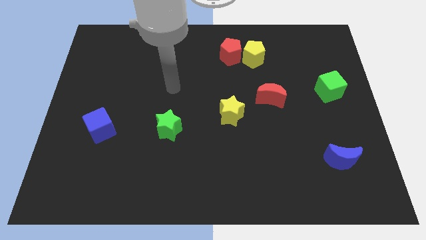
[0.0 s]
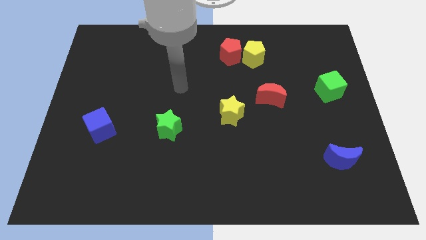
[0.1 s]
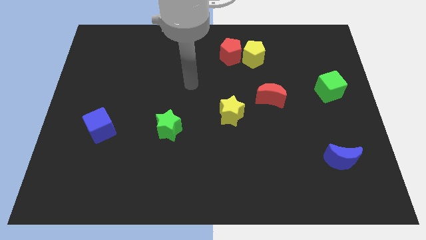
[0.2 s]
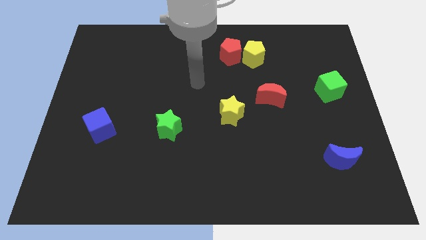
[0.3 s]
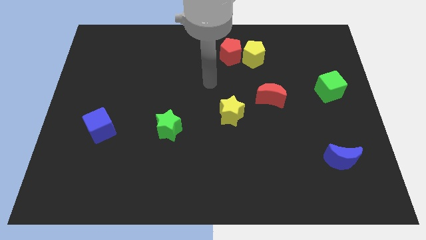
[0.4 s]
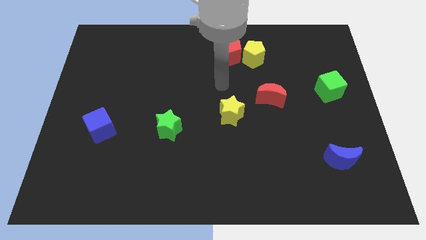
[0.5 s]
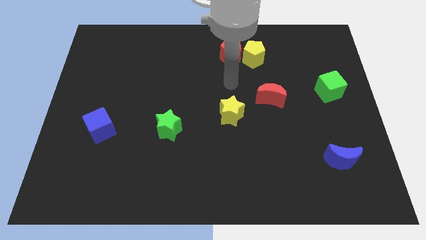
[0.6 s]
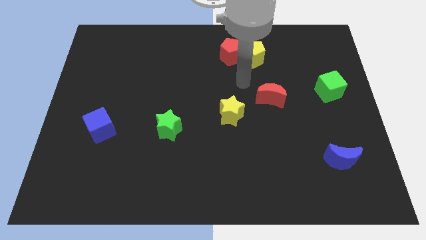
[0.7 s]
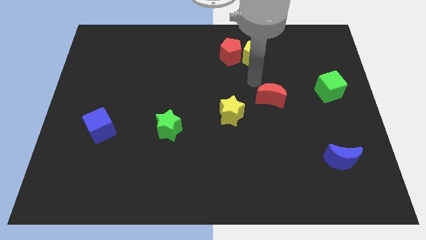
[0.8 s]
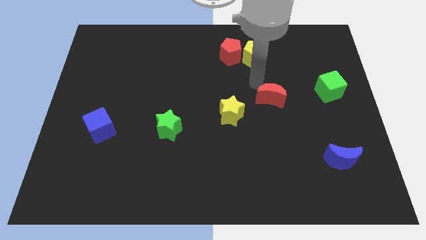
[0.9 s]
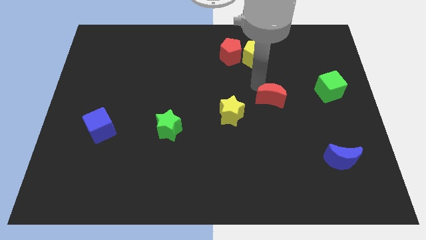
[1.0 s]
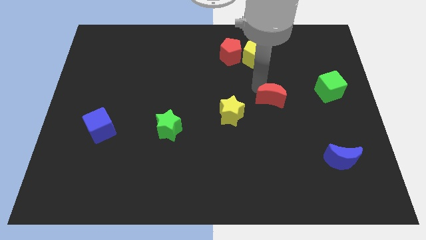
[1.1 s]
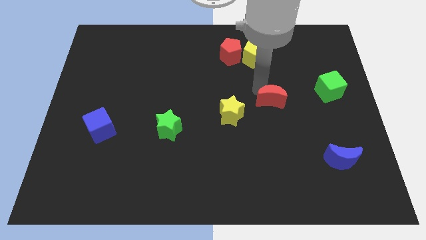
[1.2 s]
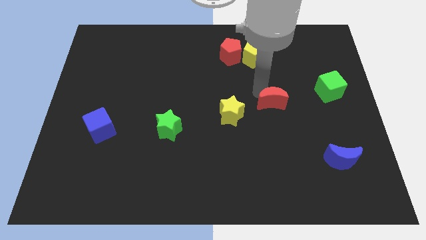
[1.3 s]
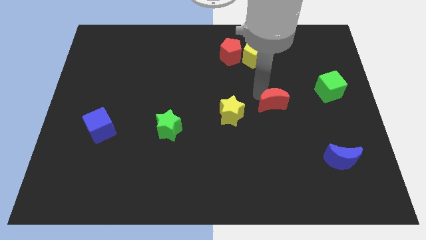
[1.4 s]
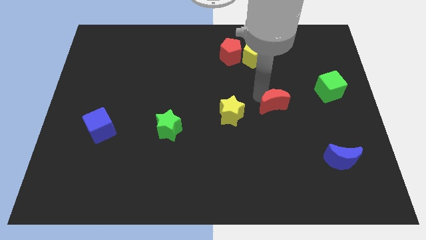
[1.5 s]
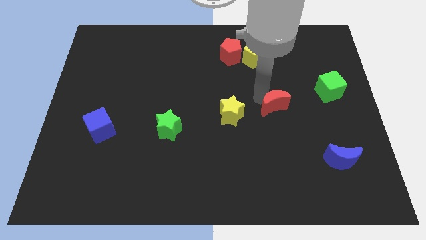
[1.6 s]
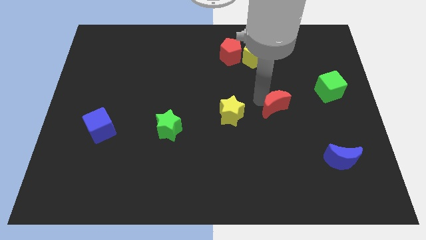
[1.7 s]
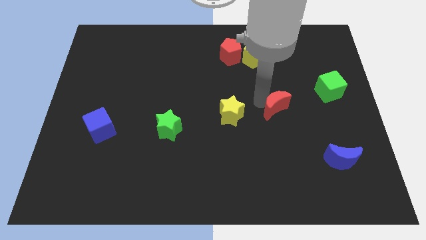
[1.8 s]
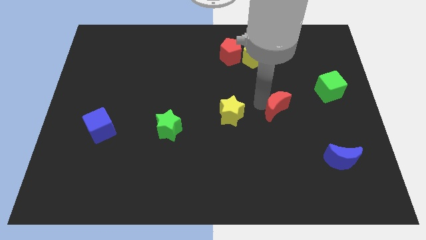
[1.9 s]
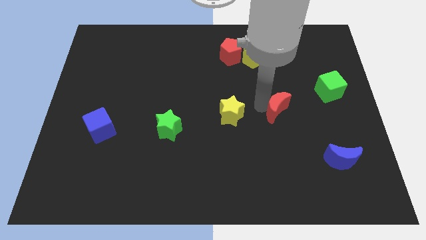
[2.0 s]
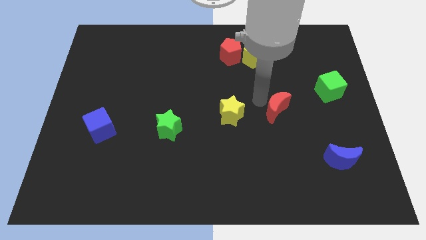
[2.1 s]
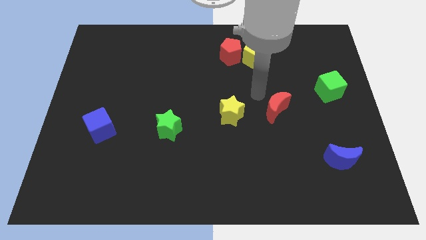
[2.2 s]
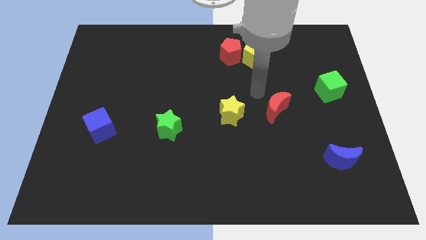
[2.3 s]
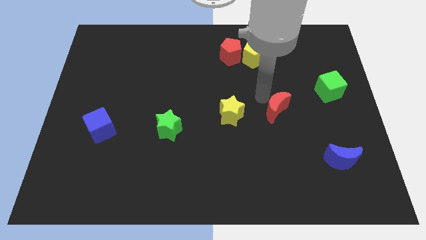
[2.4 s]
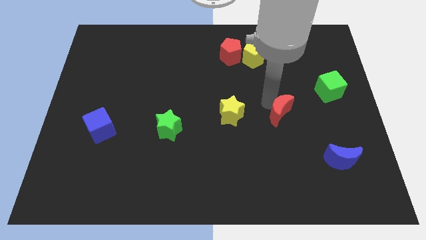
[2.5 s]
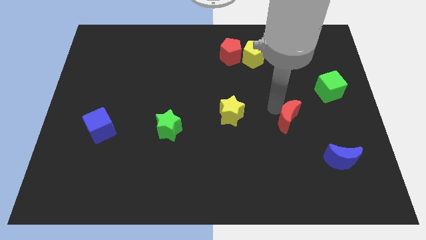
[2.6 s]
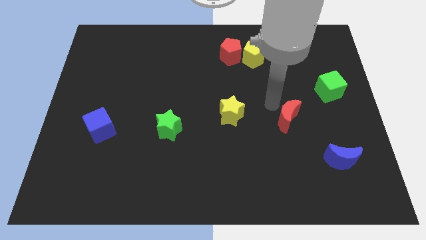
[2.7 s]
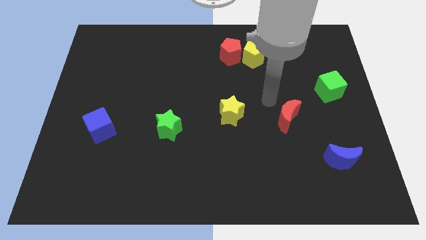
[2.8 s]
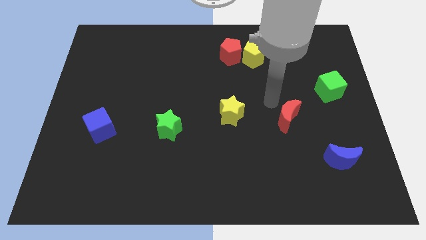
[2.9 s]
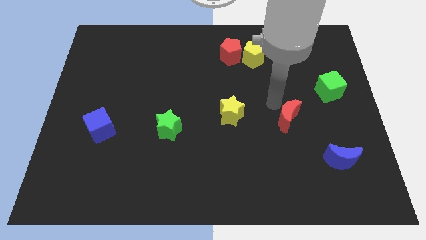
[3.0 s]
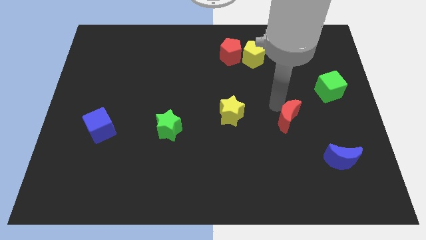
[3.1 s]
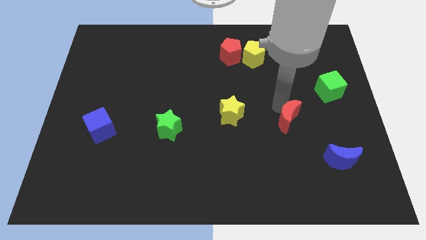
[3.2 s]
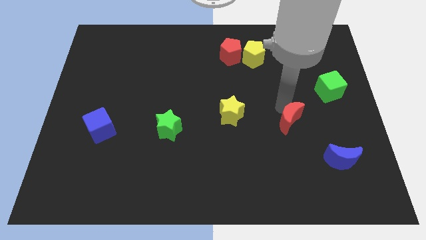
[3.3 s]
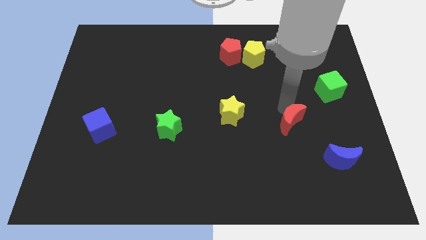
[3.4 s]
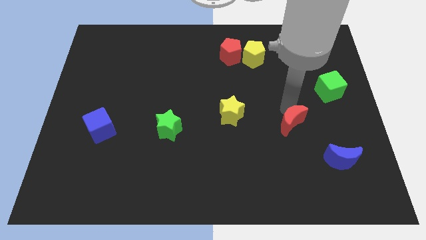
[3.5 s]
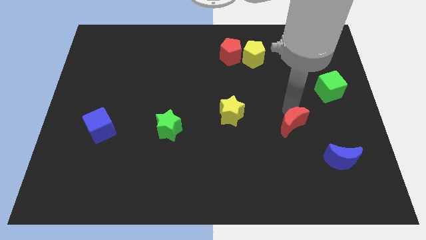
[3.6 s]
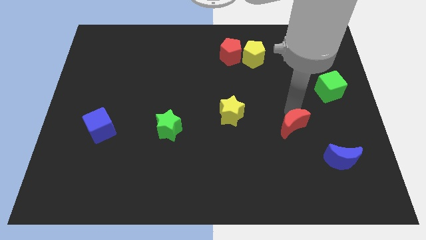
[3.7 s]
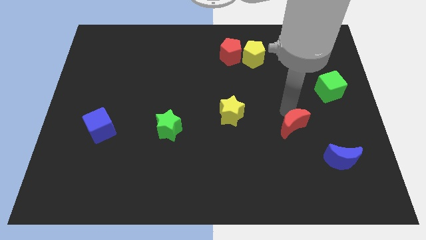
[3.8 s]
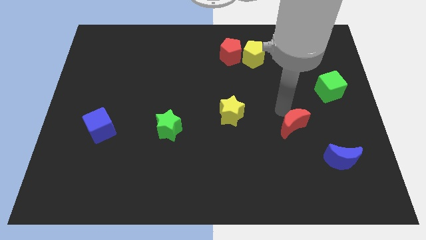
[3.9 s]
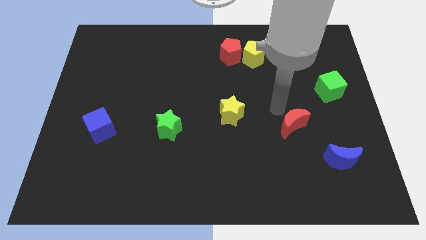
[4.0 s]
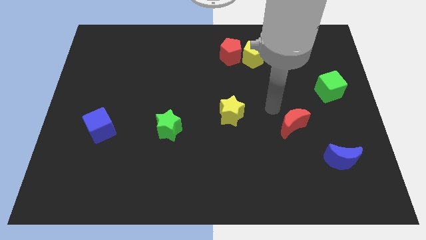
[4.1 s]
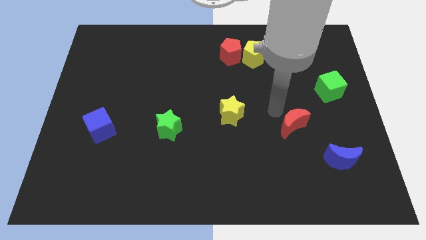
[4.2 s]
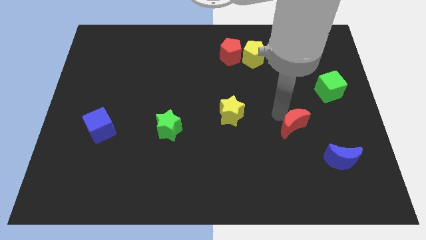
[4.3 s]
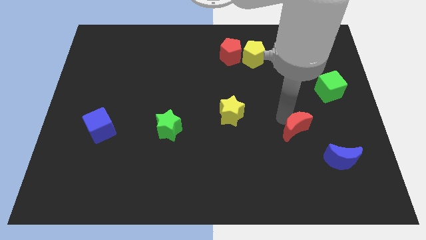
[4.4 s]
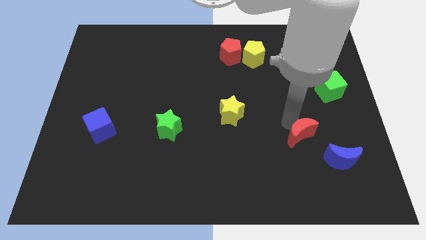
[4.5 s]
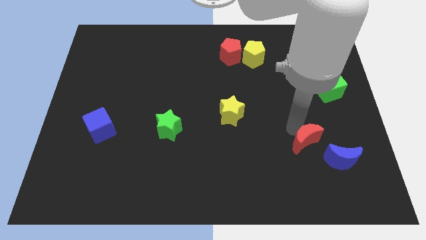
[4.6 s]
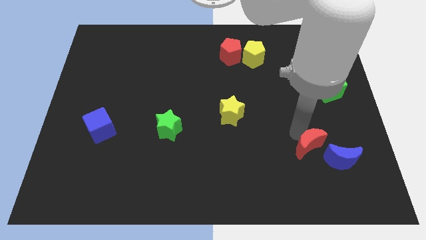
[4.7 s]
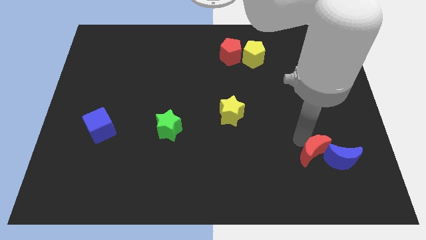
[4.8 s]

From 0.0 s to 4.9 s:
put the red moon next to the blue moon

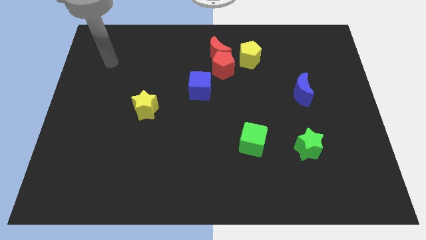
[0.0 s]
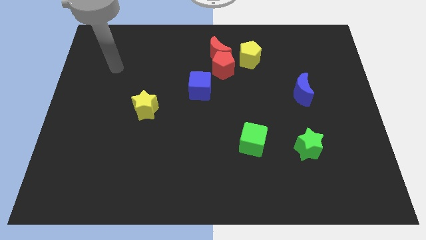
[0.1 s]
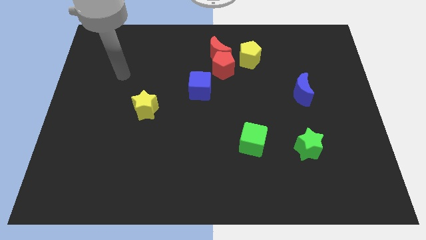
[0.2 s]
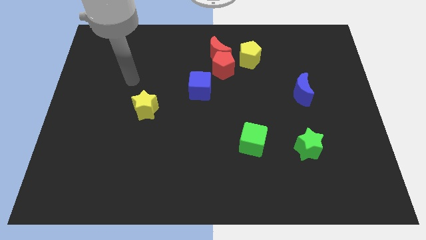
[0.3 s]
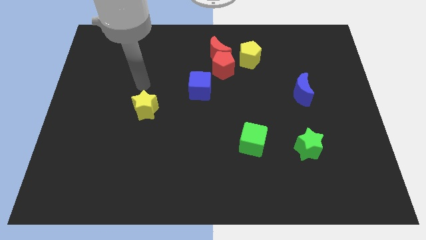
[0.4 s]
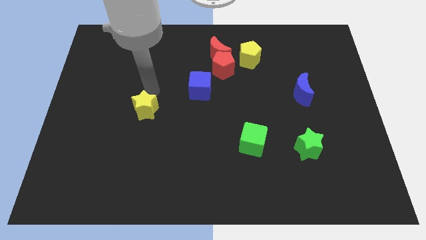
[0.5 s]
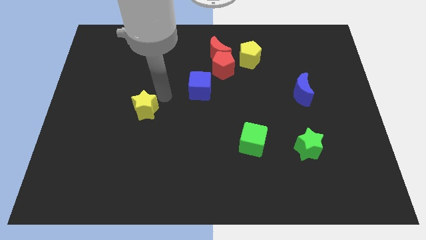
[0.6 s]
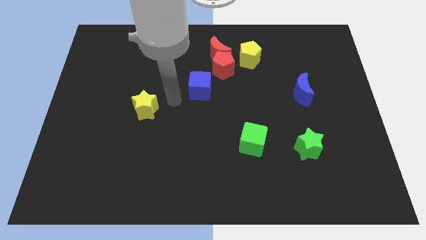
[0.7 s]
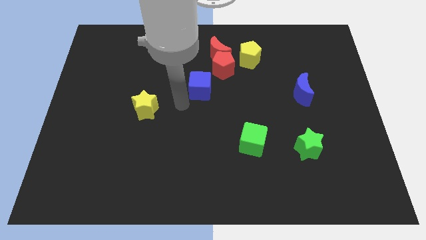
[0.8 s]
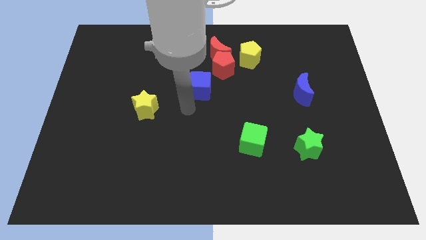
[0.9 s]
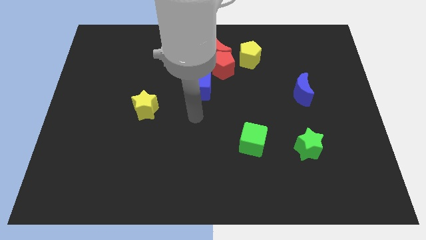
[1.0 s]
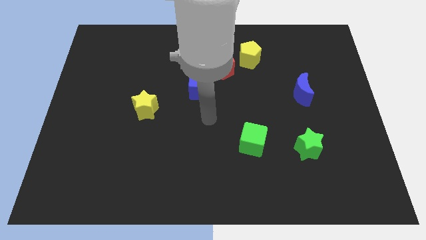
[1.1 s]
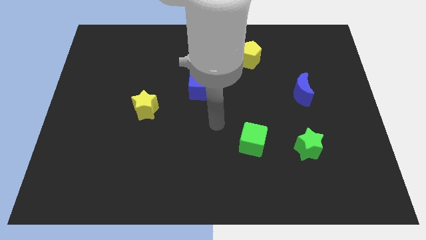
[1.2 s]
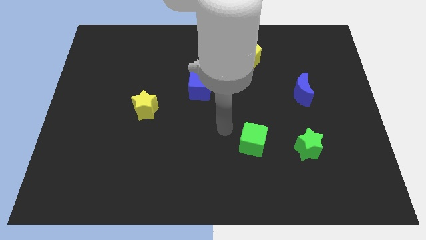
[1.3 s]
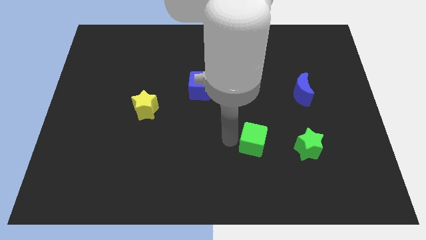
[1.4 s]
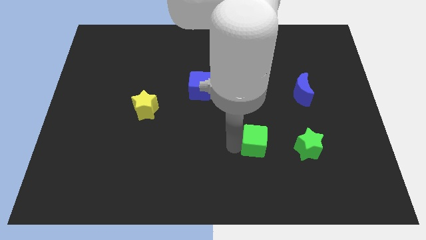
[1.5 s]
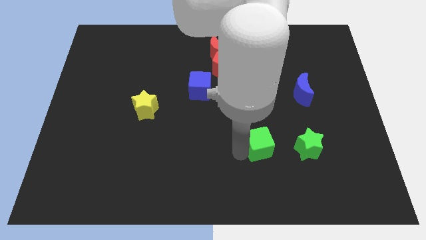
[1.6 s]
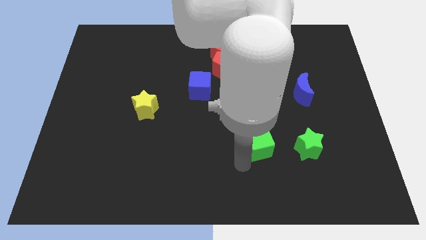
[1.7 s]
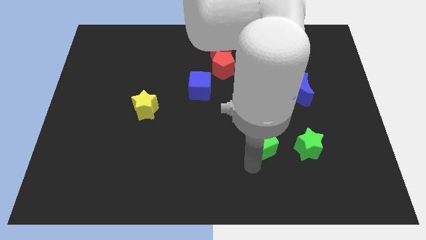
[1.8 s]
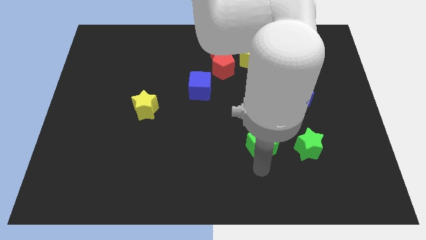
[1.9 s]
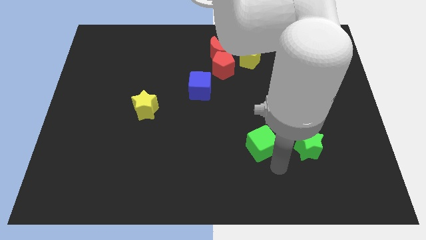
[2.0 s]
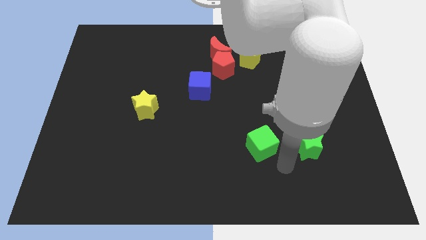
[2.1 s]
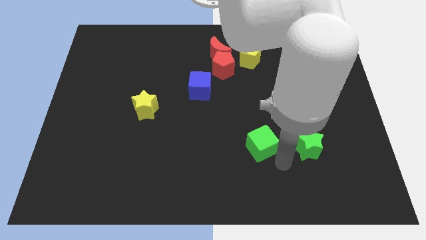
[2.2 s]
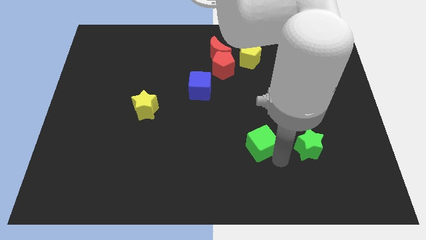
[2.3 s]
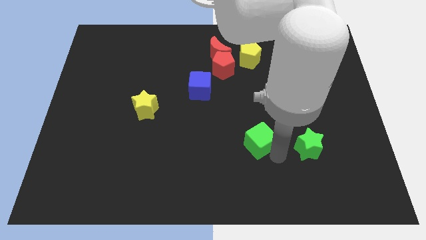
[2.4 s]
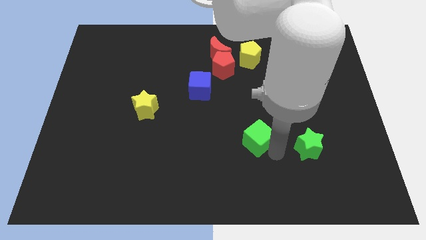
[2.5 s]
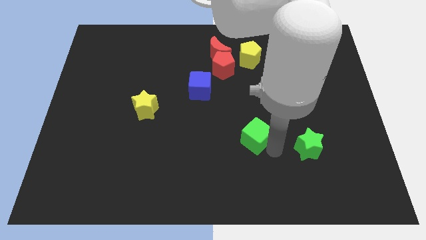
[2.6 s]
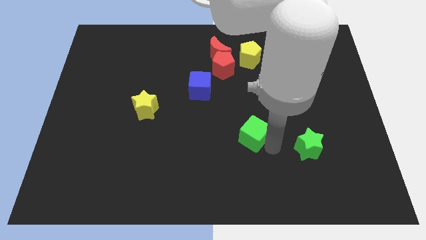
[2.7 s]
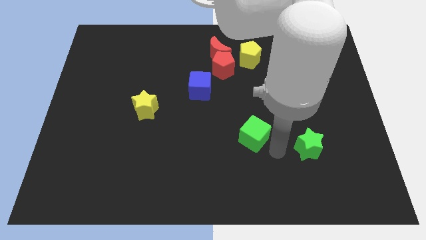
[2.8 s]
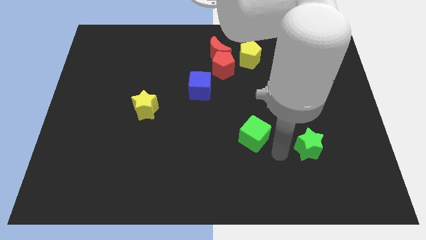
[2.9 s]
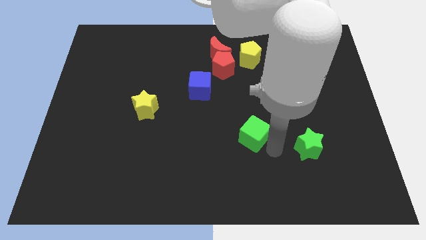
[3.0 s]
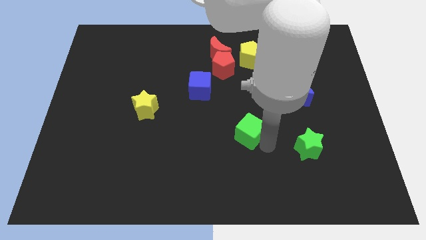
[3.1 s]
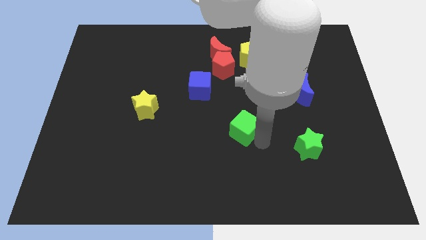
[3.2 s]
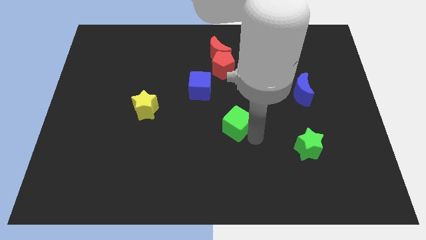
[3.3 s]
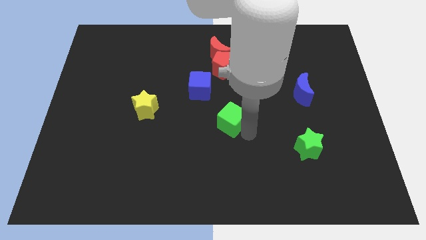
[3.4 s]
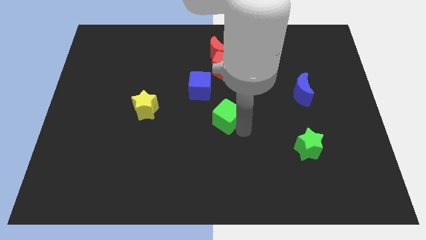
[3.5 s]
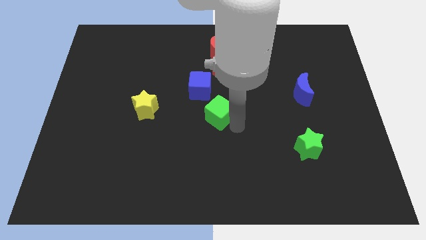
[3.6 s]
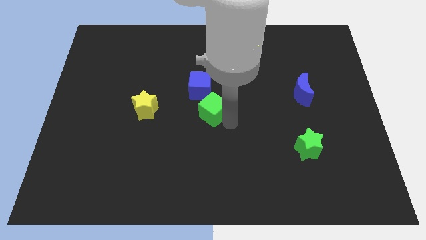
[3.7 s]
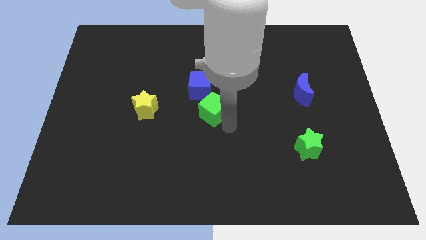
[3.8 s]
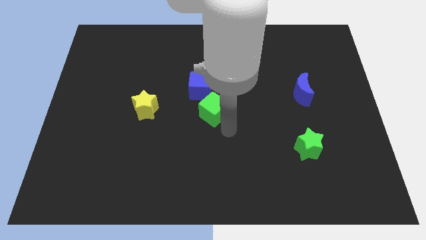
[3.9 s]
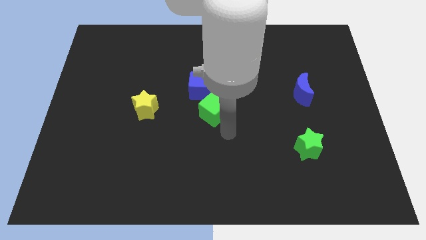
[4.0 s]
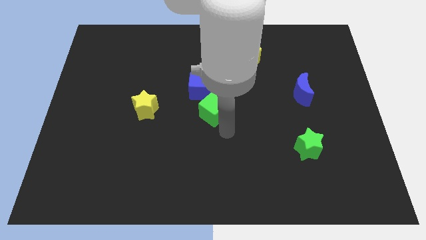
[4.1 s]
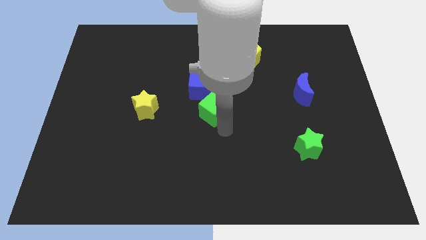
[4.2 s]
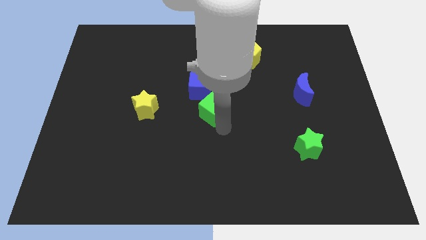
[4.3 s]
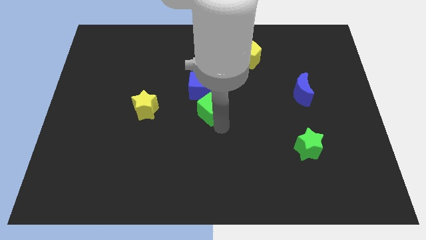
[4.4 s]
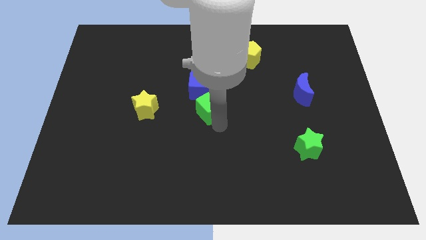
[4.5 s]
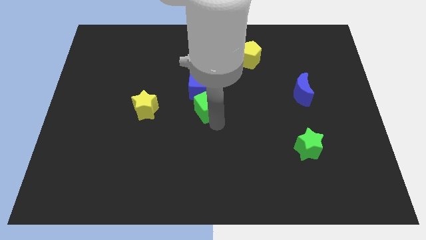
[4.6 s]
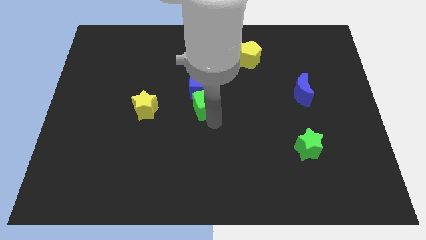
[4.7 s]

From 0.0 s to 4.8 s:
slide the green cube next to the blue cube
